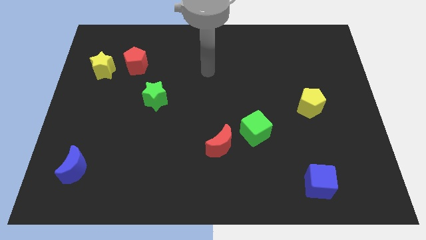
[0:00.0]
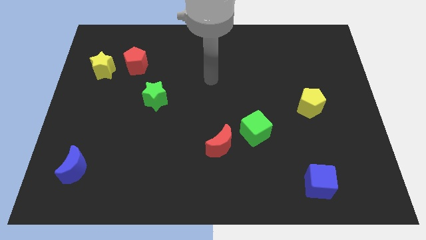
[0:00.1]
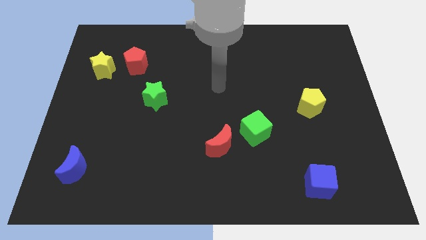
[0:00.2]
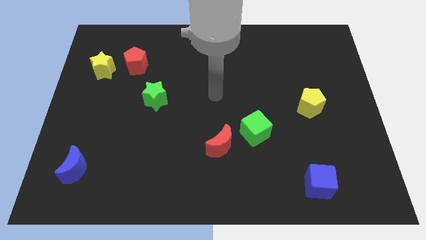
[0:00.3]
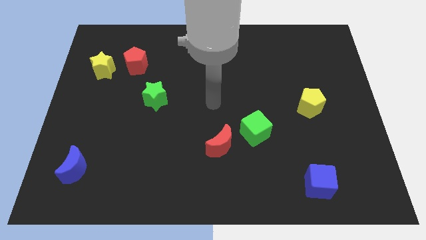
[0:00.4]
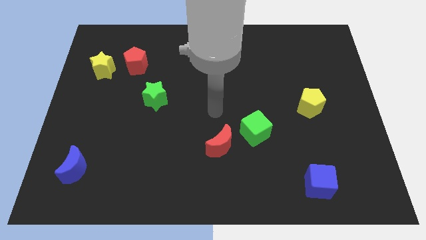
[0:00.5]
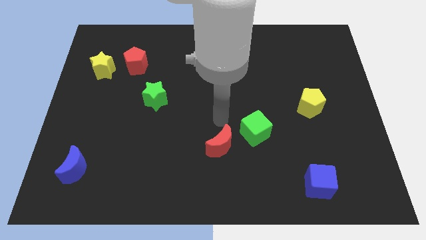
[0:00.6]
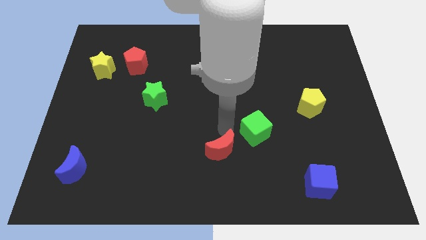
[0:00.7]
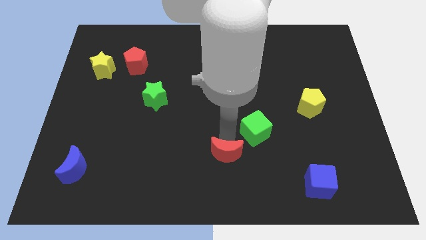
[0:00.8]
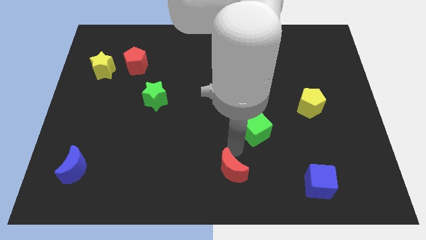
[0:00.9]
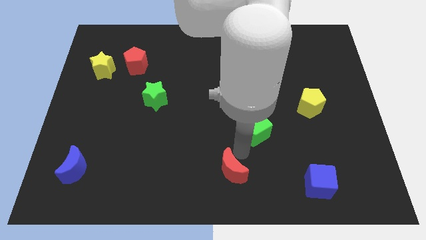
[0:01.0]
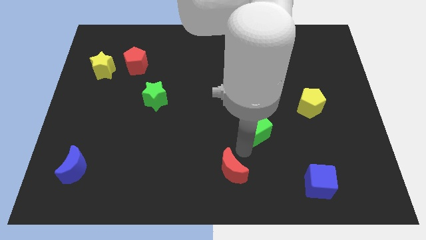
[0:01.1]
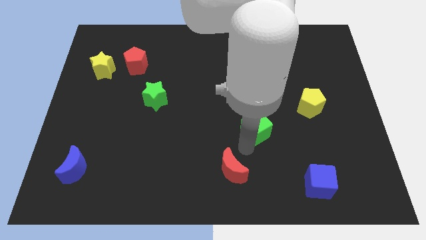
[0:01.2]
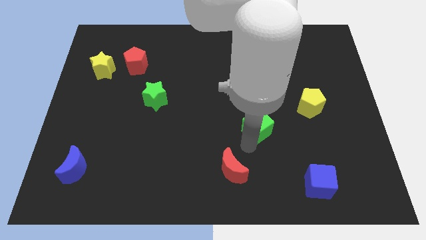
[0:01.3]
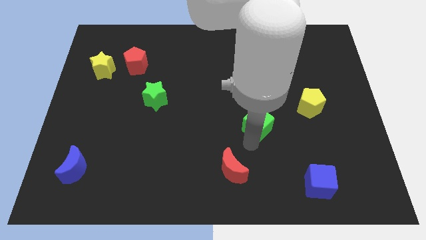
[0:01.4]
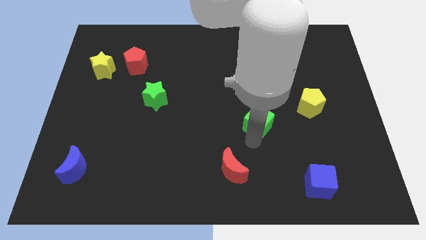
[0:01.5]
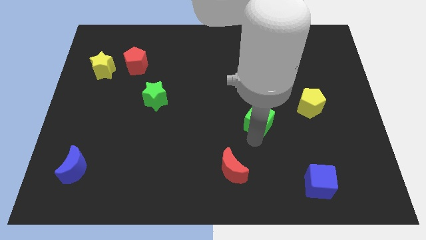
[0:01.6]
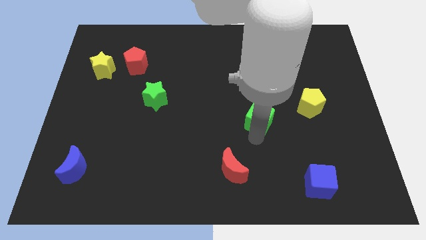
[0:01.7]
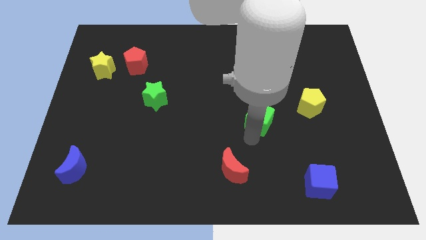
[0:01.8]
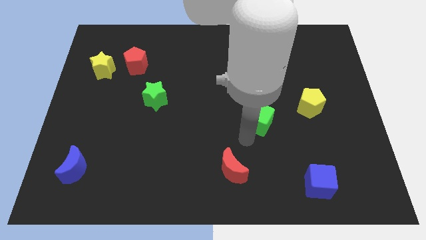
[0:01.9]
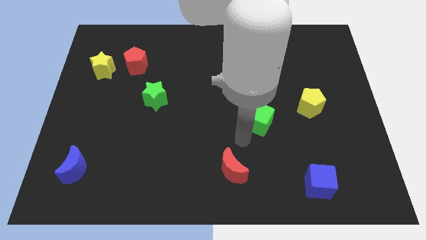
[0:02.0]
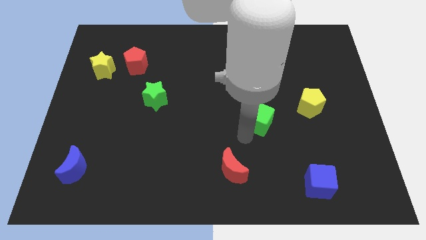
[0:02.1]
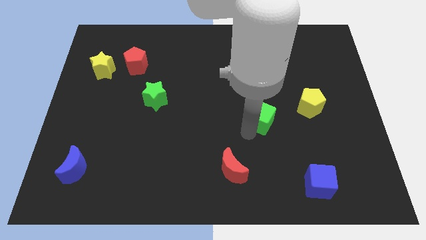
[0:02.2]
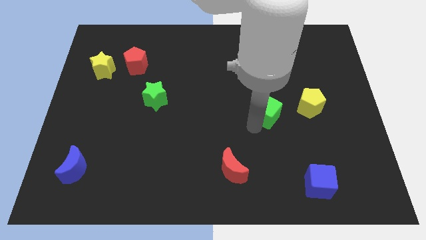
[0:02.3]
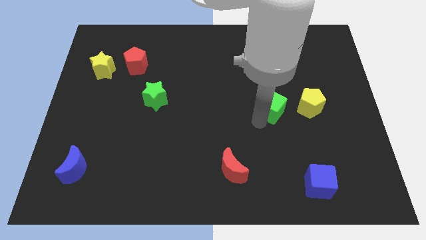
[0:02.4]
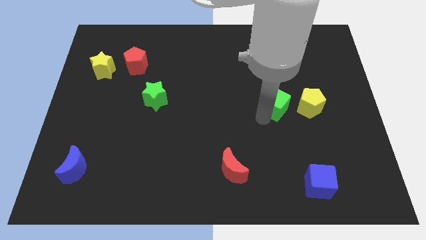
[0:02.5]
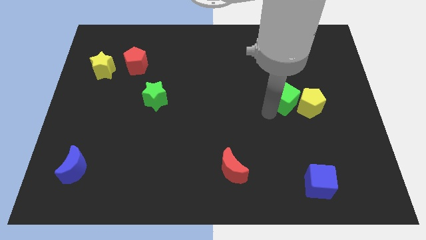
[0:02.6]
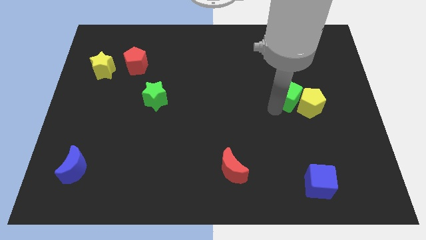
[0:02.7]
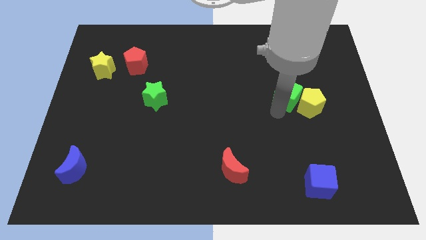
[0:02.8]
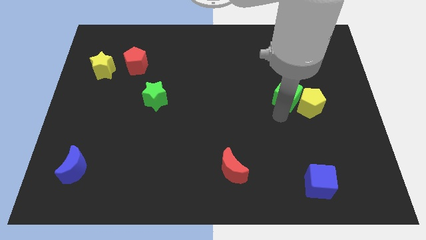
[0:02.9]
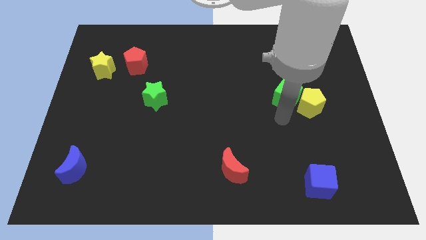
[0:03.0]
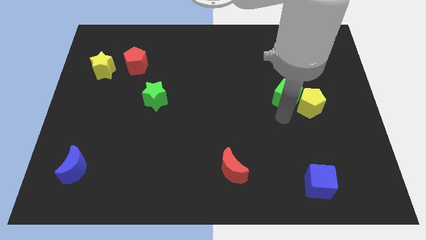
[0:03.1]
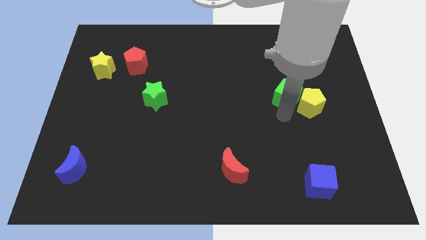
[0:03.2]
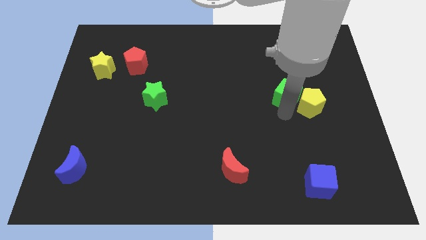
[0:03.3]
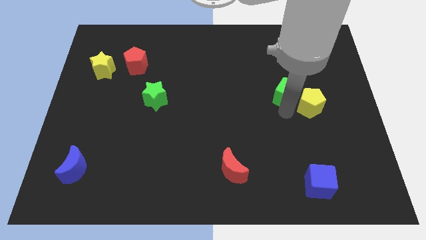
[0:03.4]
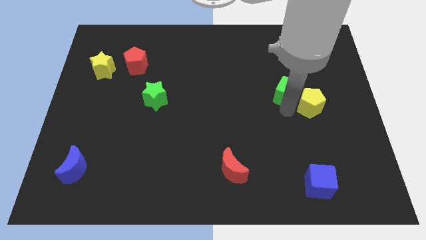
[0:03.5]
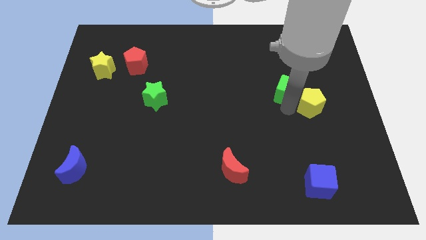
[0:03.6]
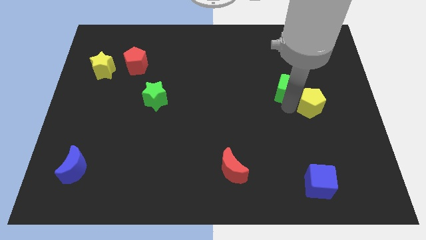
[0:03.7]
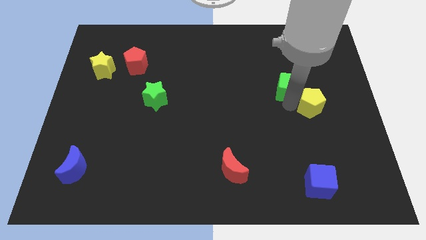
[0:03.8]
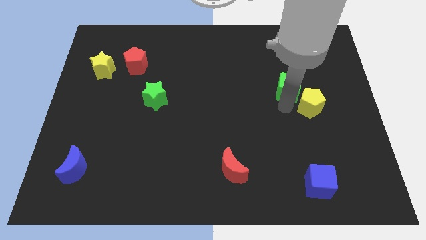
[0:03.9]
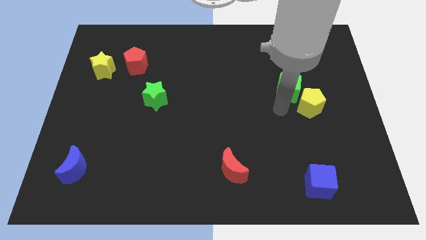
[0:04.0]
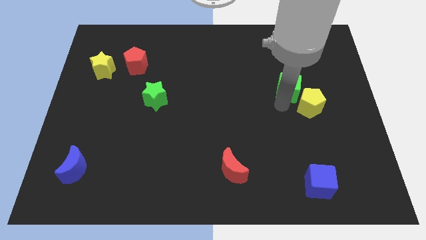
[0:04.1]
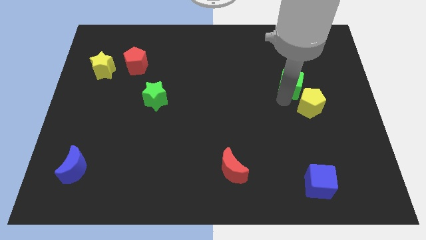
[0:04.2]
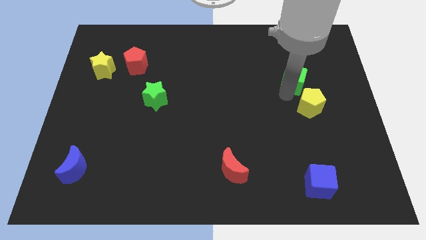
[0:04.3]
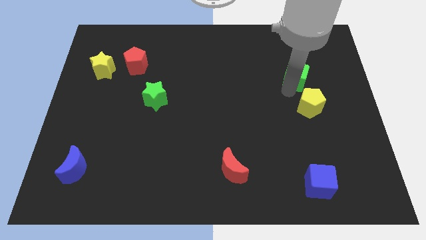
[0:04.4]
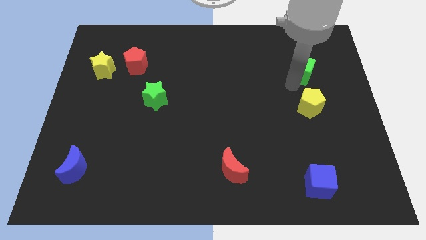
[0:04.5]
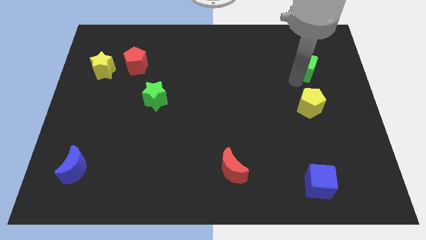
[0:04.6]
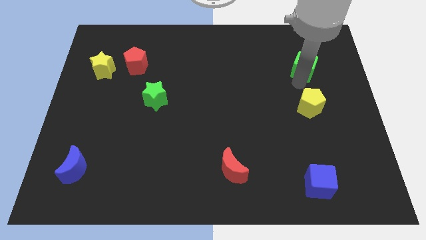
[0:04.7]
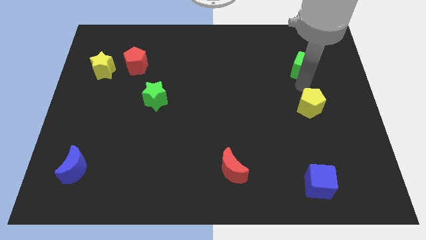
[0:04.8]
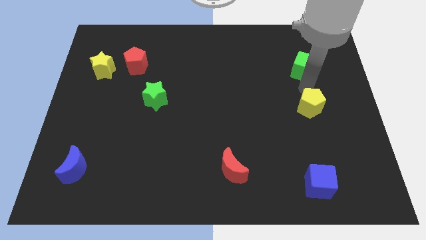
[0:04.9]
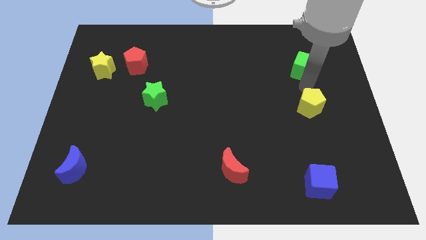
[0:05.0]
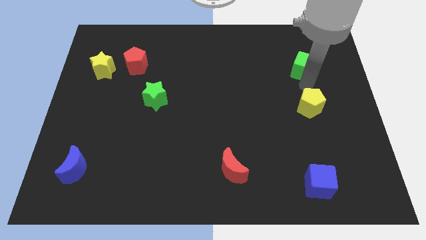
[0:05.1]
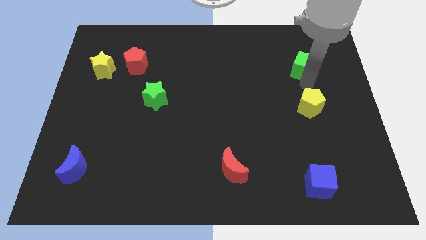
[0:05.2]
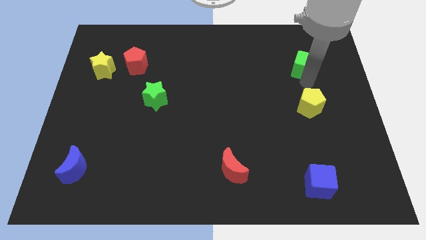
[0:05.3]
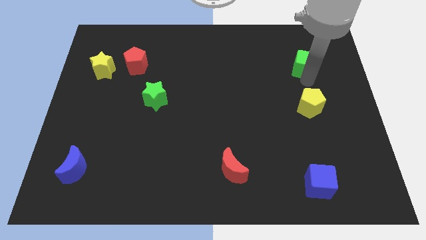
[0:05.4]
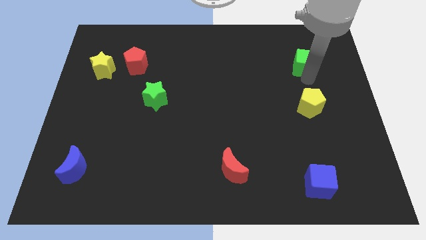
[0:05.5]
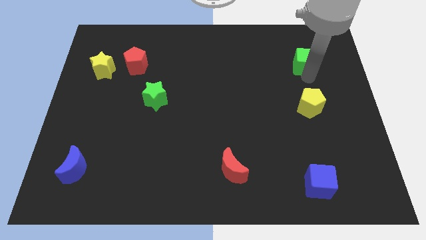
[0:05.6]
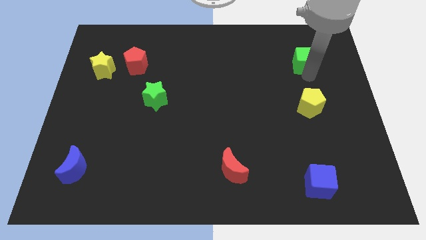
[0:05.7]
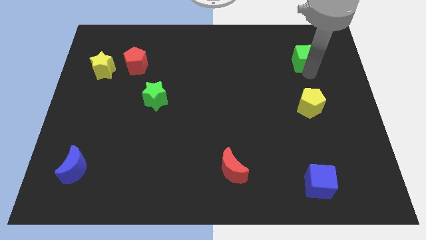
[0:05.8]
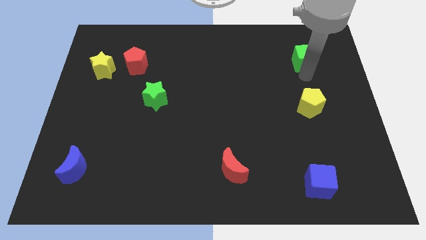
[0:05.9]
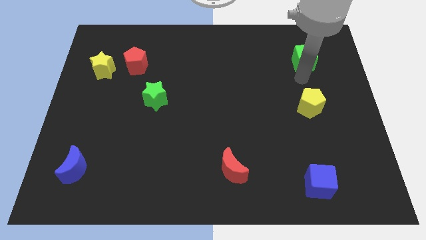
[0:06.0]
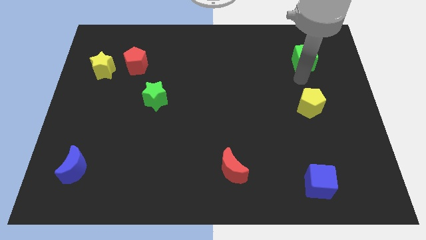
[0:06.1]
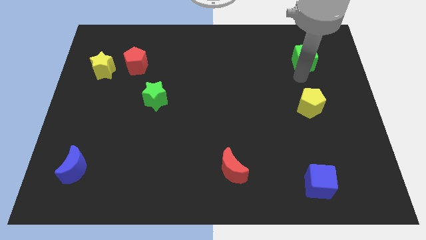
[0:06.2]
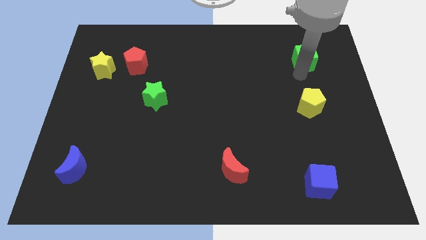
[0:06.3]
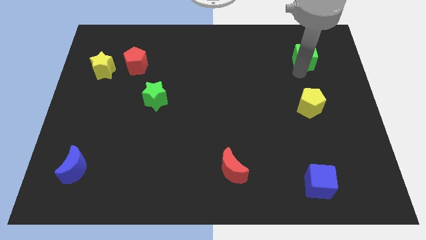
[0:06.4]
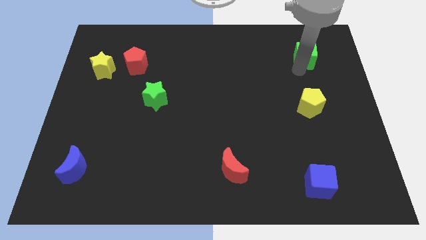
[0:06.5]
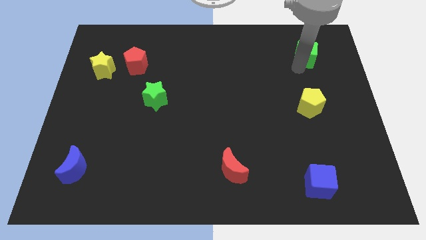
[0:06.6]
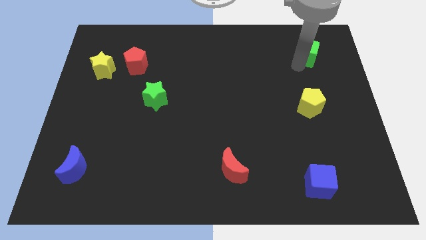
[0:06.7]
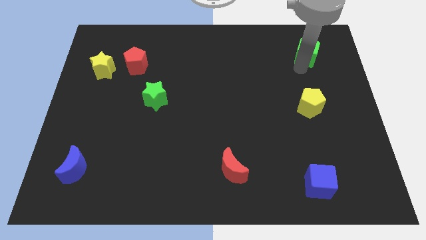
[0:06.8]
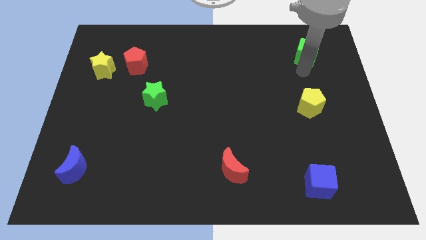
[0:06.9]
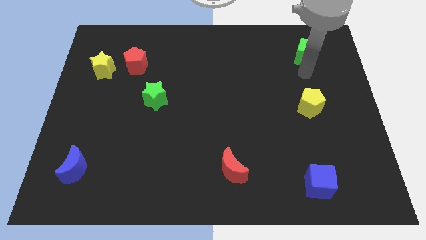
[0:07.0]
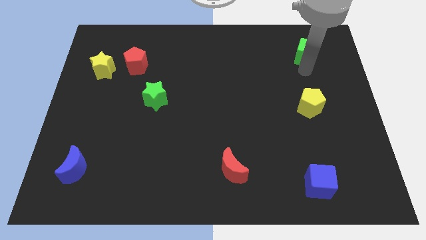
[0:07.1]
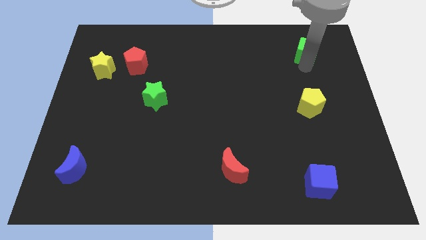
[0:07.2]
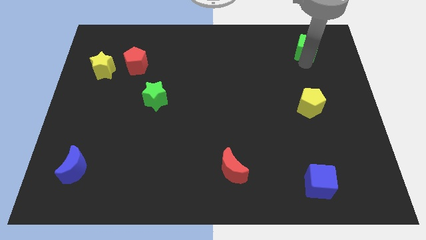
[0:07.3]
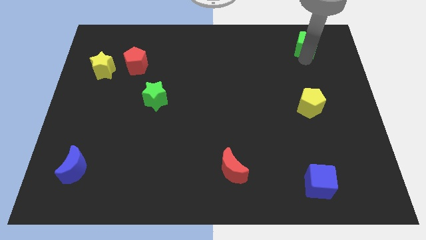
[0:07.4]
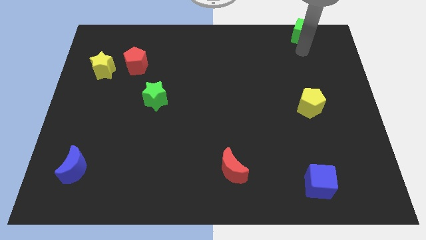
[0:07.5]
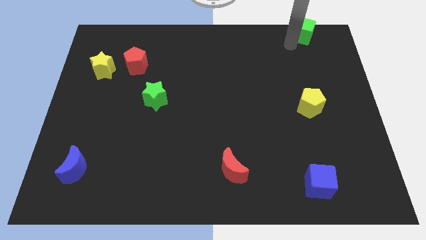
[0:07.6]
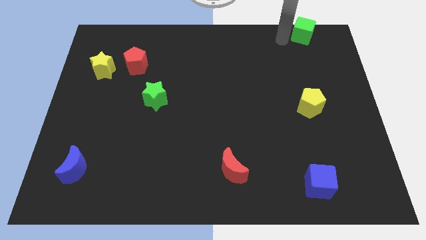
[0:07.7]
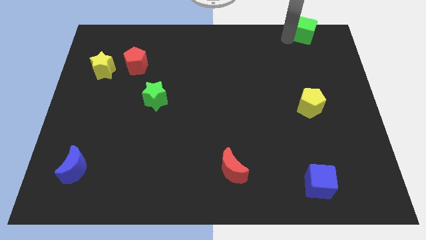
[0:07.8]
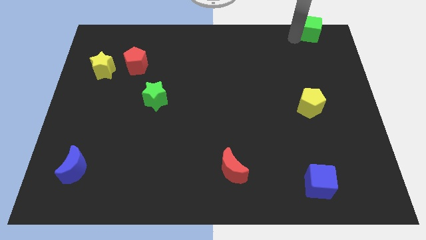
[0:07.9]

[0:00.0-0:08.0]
push the green cube to the top right of the board
